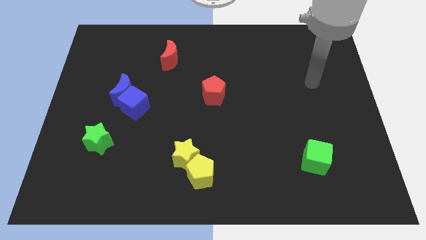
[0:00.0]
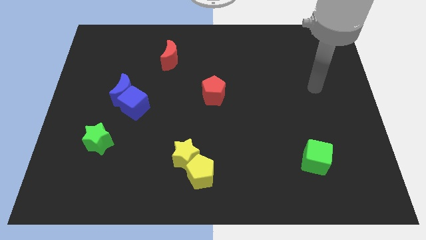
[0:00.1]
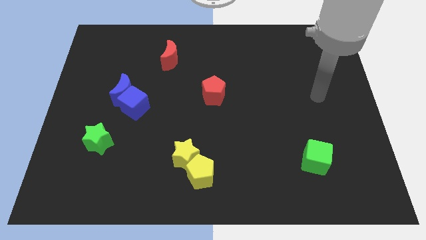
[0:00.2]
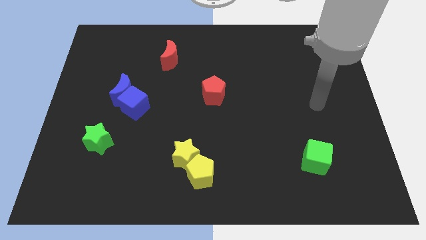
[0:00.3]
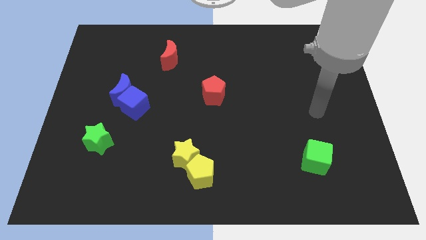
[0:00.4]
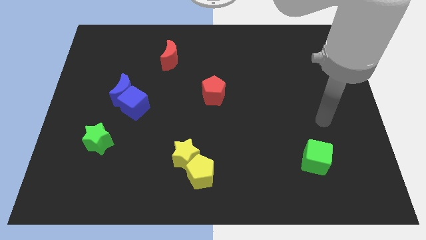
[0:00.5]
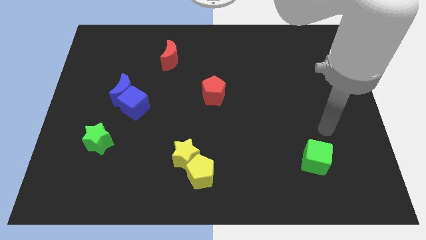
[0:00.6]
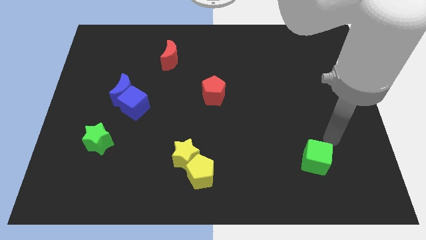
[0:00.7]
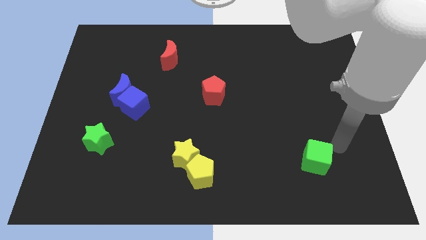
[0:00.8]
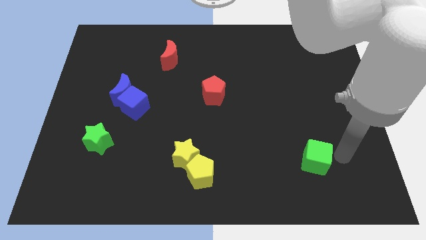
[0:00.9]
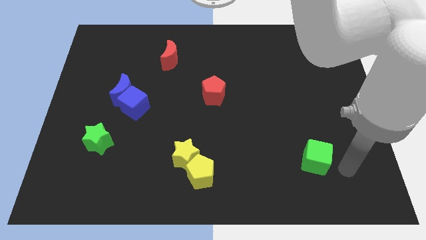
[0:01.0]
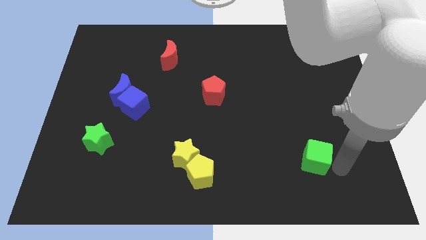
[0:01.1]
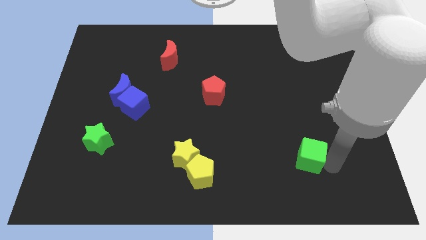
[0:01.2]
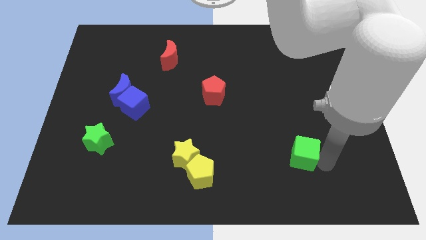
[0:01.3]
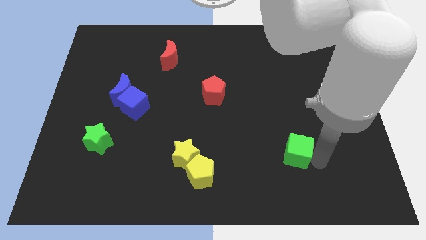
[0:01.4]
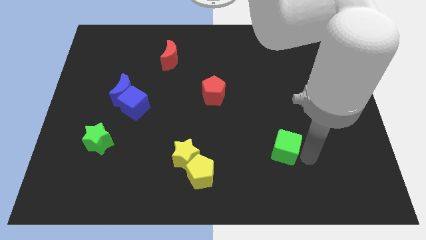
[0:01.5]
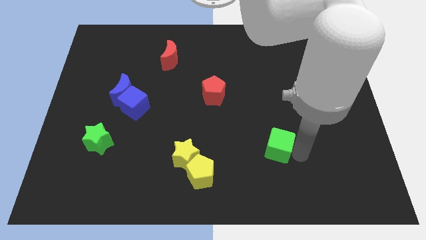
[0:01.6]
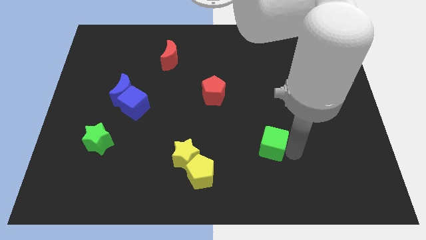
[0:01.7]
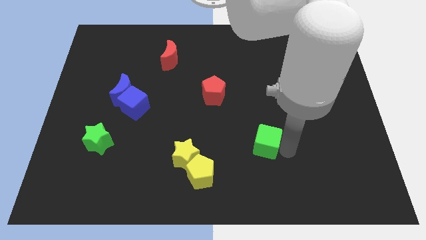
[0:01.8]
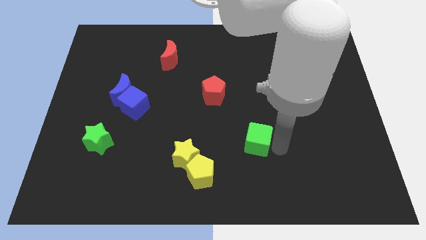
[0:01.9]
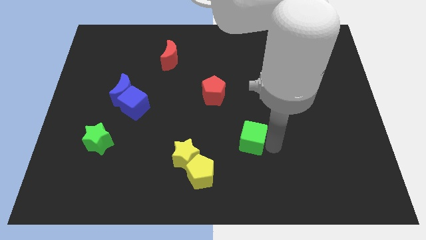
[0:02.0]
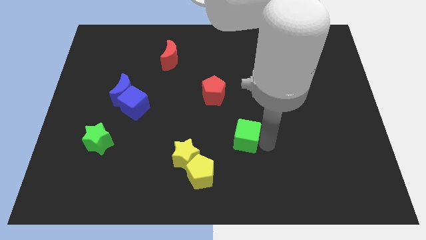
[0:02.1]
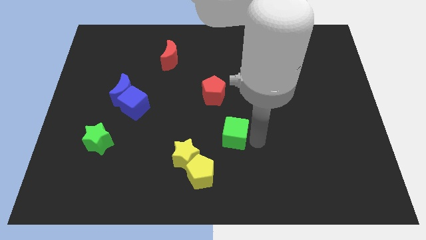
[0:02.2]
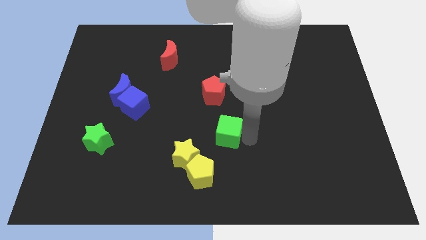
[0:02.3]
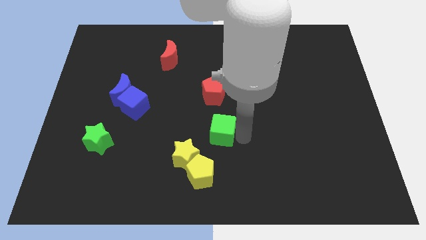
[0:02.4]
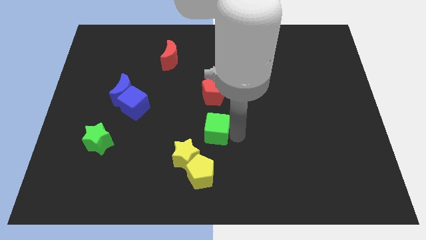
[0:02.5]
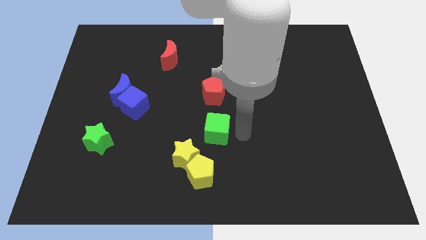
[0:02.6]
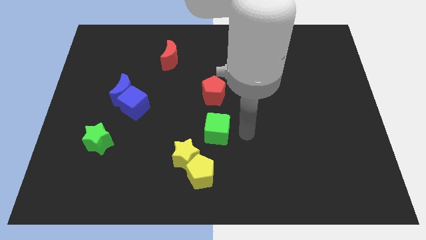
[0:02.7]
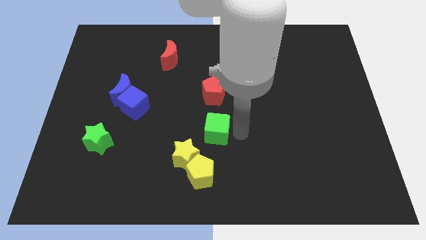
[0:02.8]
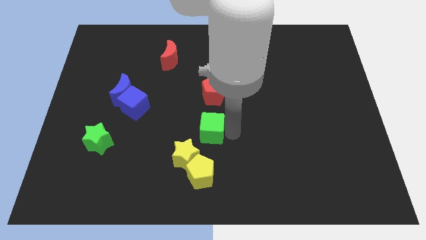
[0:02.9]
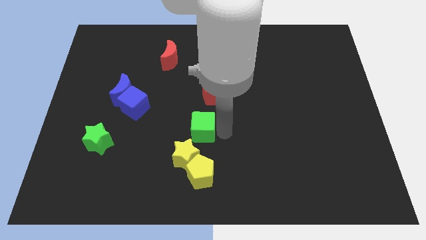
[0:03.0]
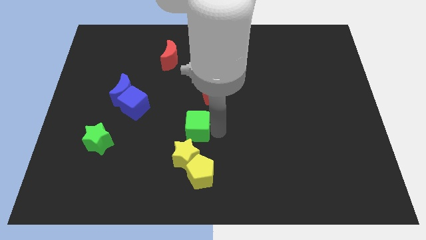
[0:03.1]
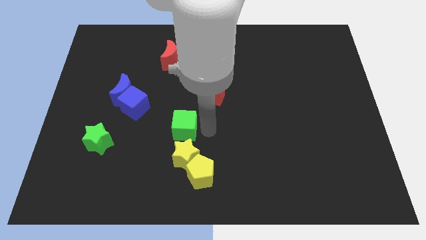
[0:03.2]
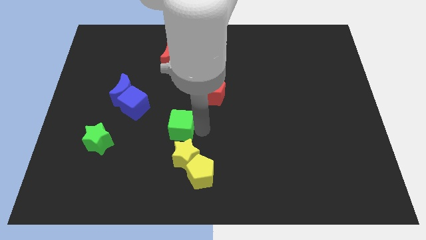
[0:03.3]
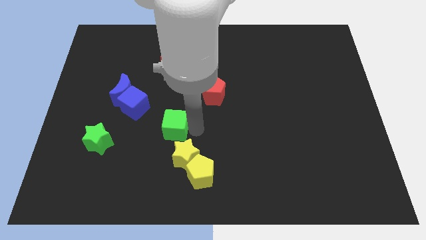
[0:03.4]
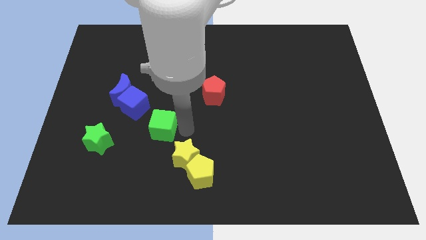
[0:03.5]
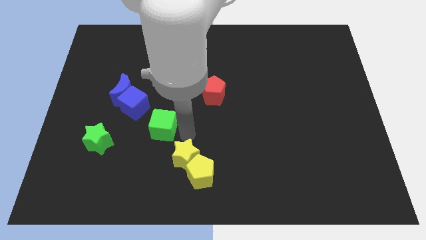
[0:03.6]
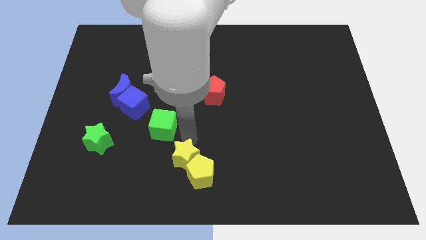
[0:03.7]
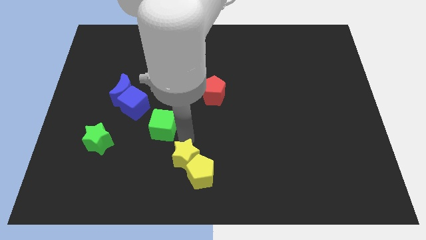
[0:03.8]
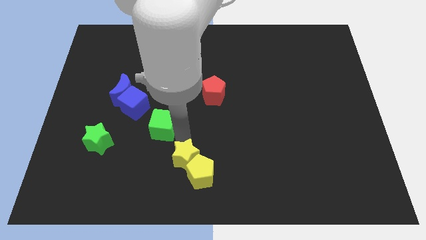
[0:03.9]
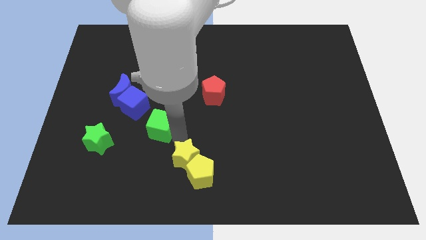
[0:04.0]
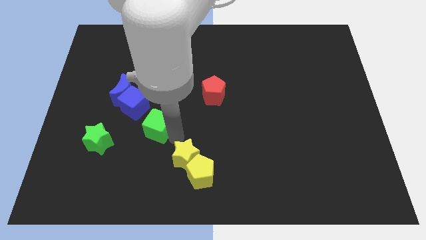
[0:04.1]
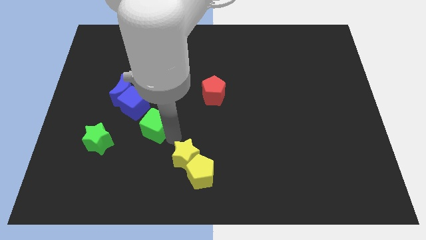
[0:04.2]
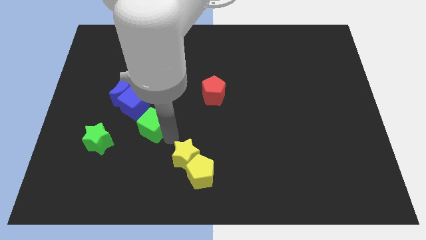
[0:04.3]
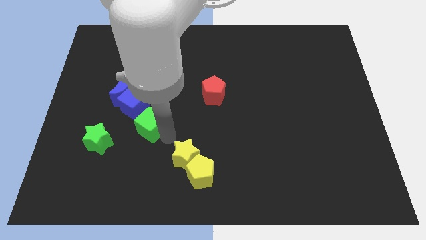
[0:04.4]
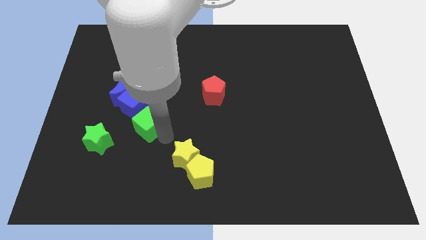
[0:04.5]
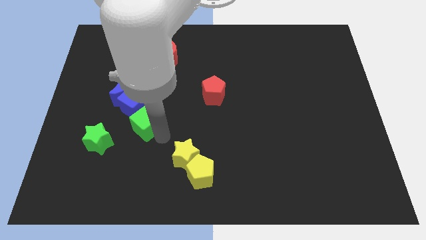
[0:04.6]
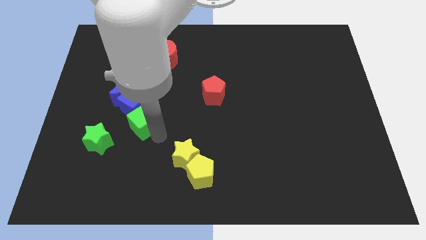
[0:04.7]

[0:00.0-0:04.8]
move the green cube next to the blue cube

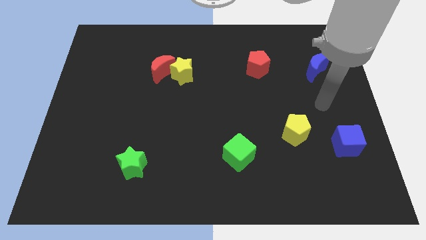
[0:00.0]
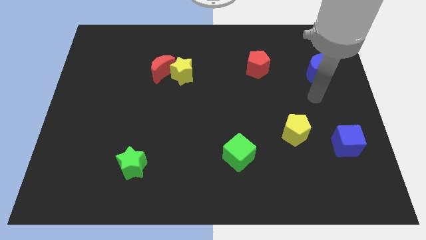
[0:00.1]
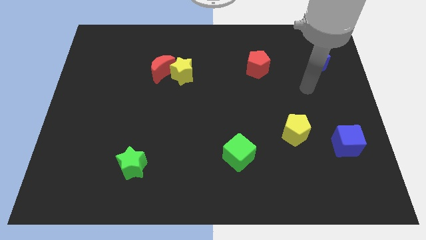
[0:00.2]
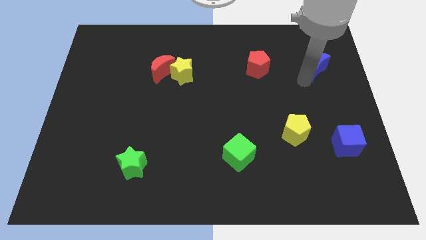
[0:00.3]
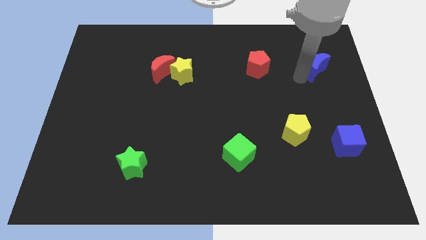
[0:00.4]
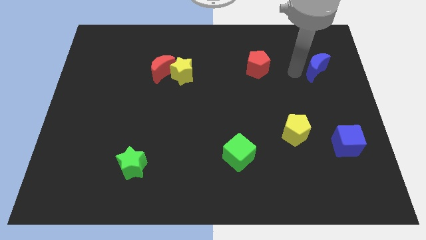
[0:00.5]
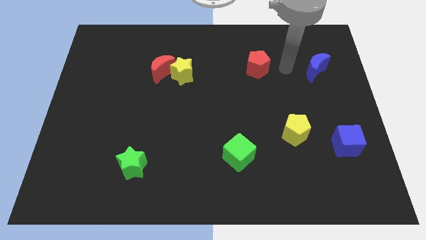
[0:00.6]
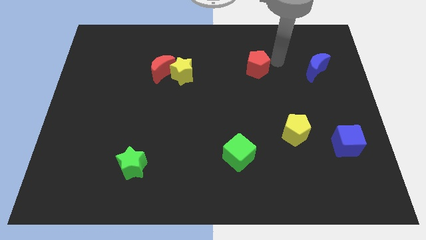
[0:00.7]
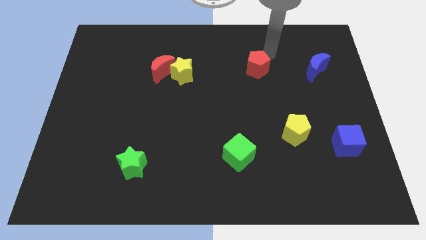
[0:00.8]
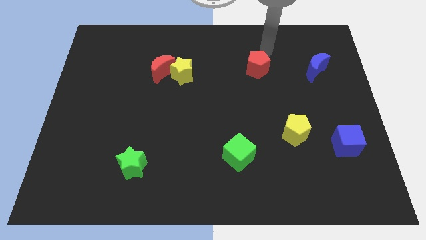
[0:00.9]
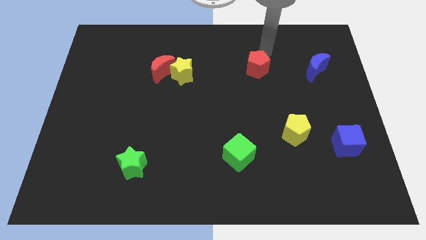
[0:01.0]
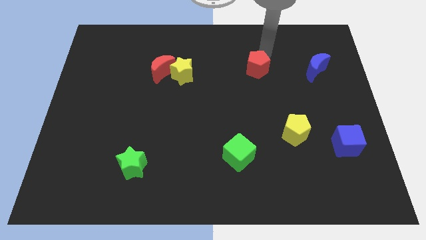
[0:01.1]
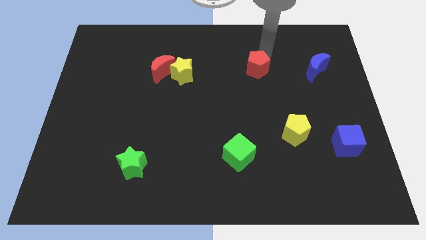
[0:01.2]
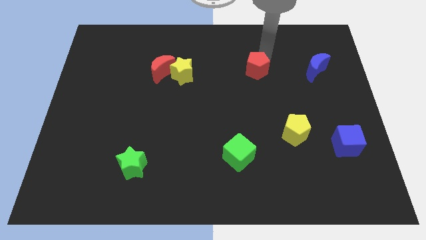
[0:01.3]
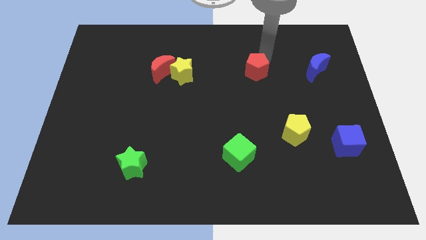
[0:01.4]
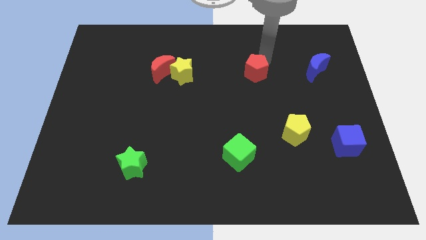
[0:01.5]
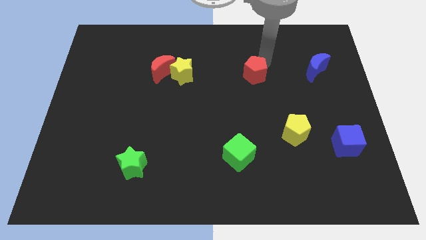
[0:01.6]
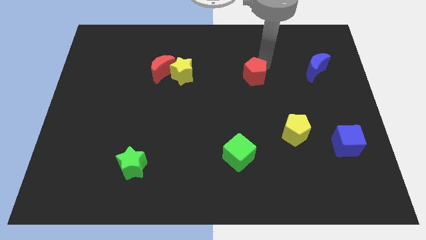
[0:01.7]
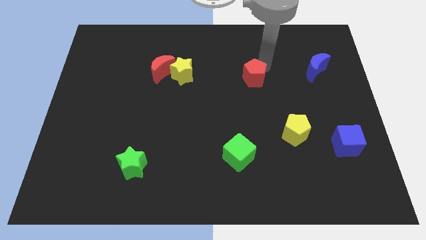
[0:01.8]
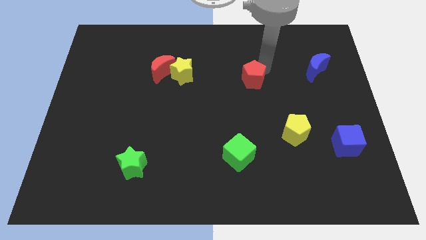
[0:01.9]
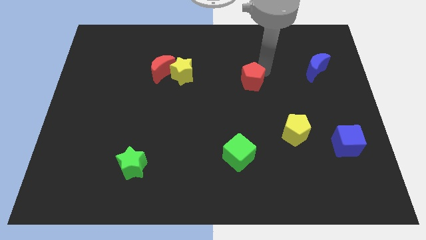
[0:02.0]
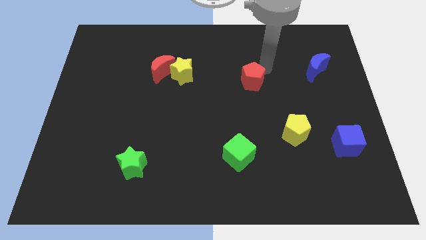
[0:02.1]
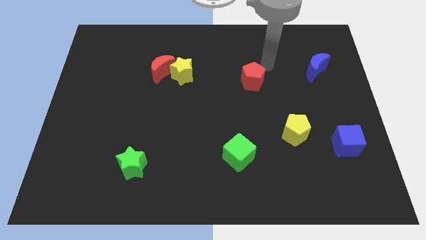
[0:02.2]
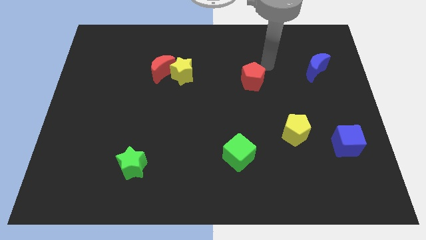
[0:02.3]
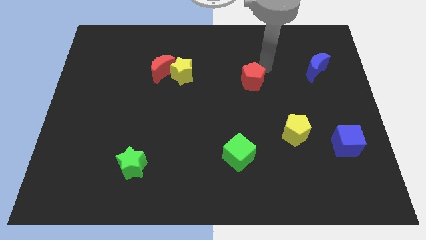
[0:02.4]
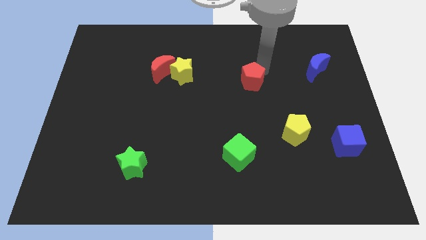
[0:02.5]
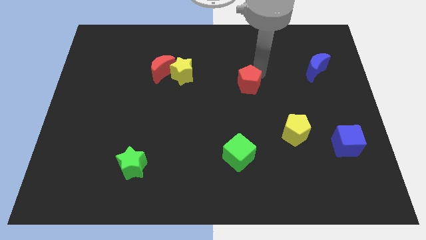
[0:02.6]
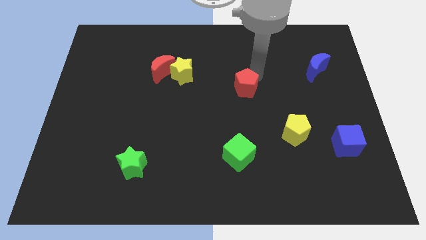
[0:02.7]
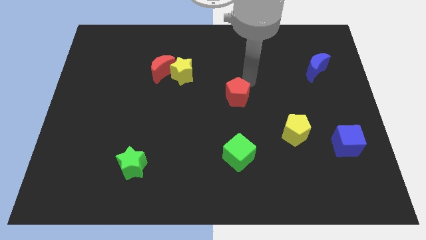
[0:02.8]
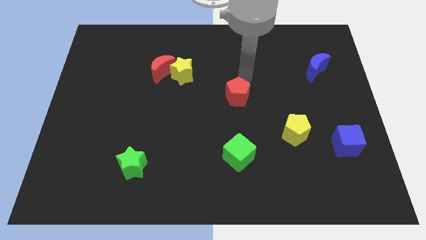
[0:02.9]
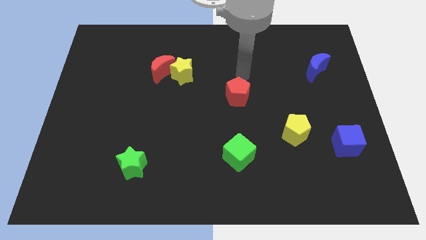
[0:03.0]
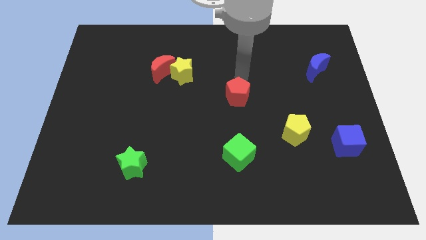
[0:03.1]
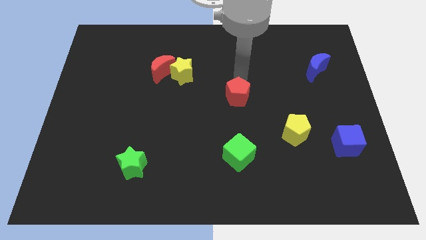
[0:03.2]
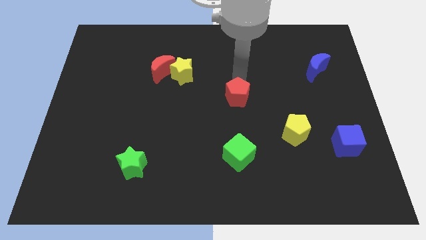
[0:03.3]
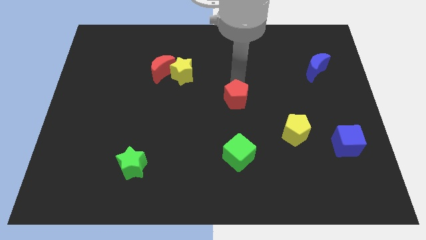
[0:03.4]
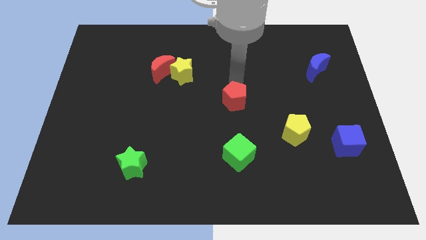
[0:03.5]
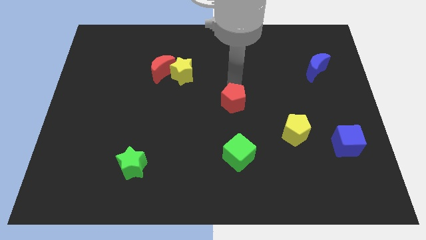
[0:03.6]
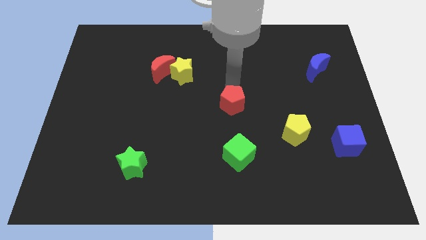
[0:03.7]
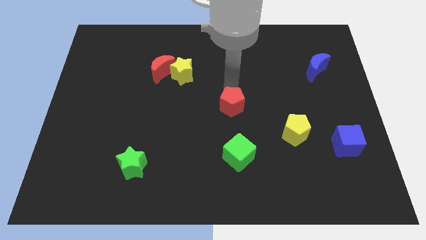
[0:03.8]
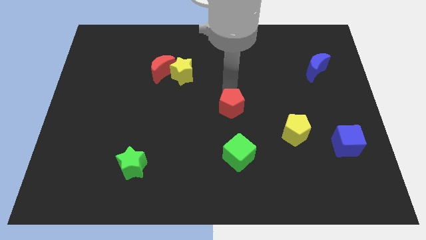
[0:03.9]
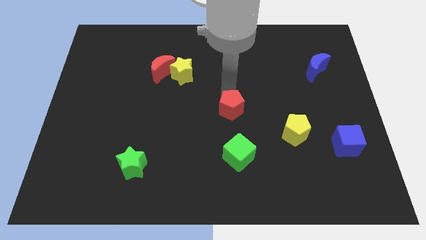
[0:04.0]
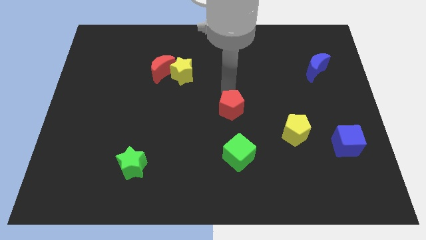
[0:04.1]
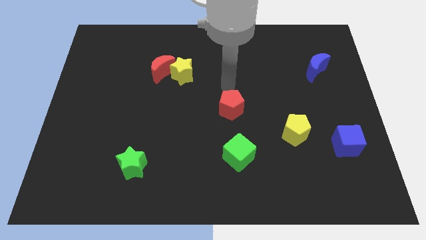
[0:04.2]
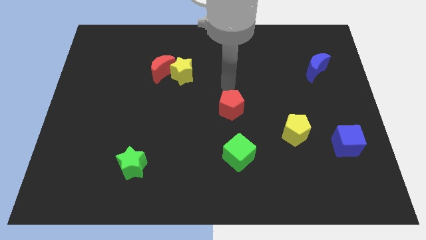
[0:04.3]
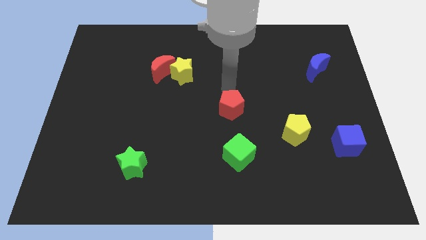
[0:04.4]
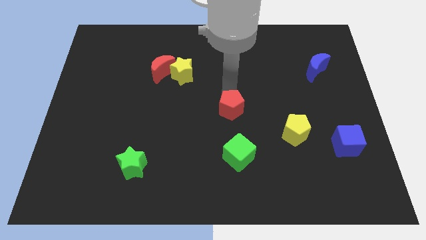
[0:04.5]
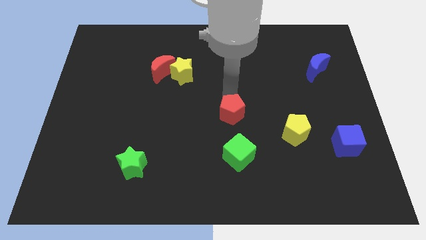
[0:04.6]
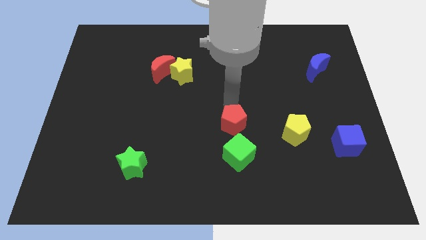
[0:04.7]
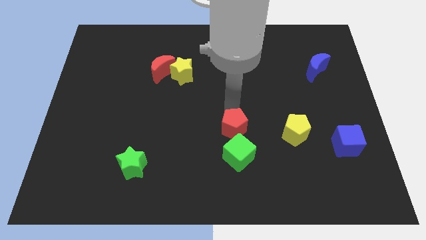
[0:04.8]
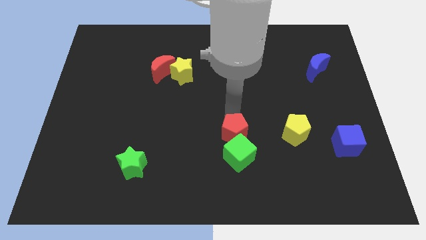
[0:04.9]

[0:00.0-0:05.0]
move the red pentagon to the green cube
